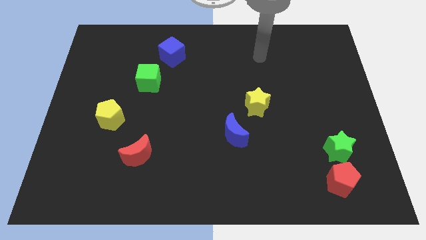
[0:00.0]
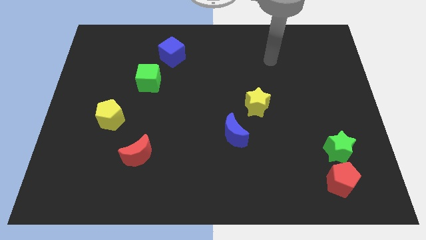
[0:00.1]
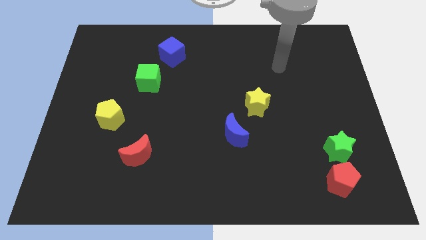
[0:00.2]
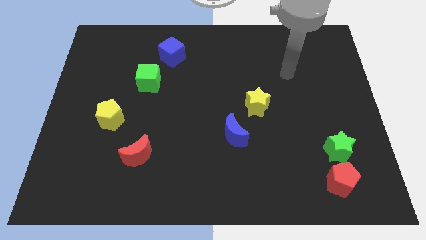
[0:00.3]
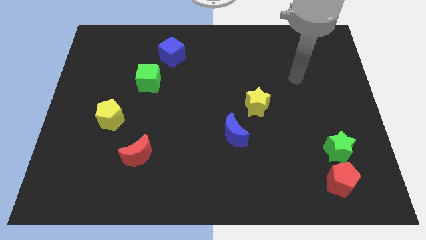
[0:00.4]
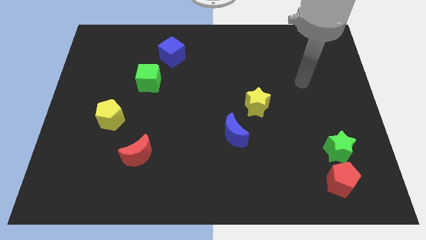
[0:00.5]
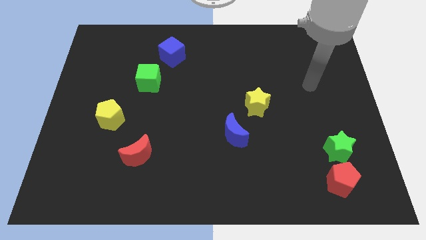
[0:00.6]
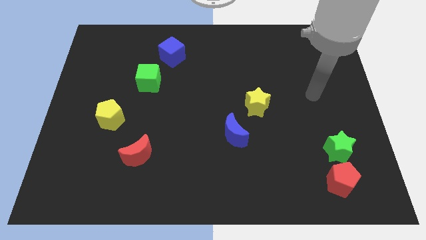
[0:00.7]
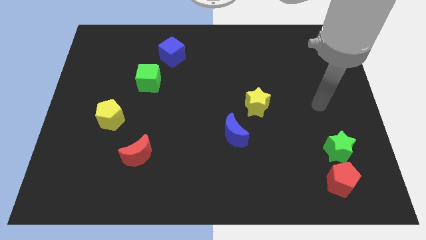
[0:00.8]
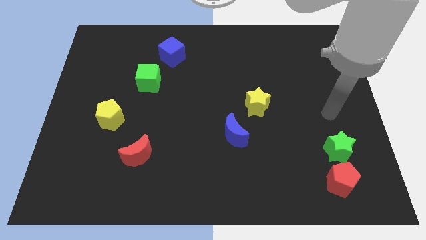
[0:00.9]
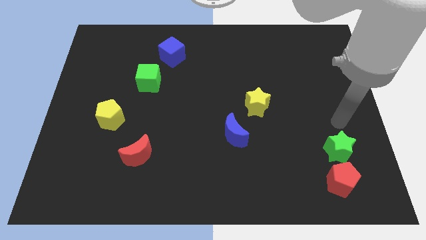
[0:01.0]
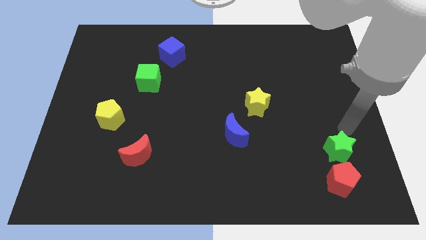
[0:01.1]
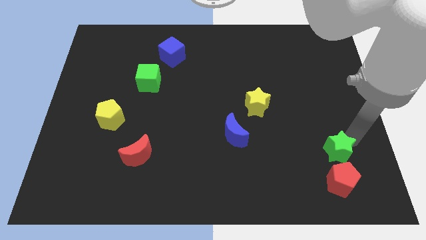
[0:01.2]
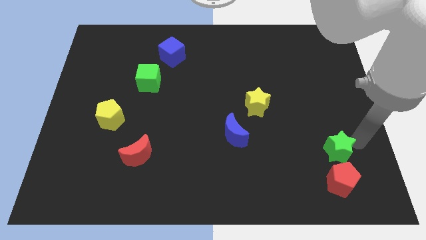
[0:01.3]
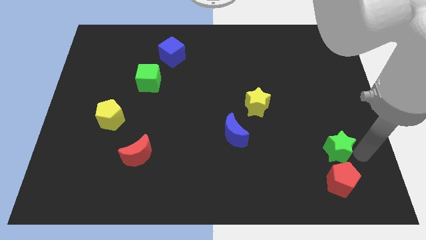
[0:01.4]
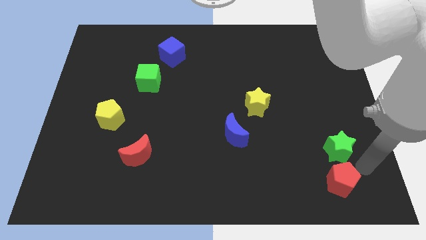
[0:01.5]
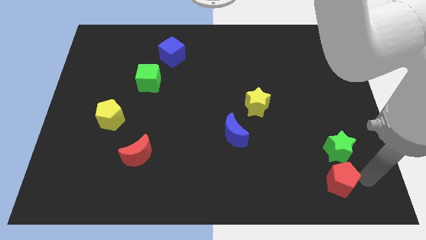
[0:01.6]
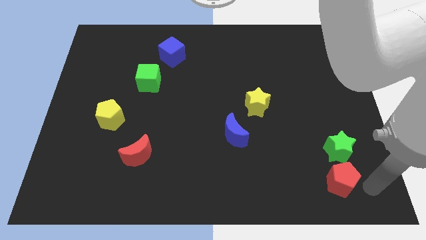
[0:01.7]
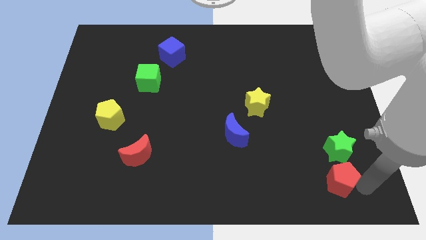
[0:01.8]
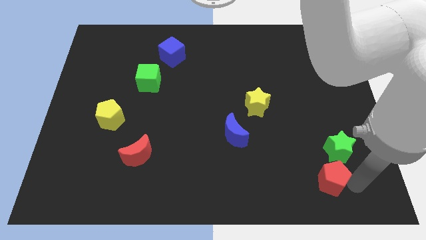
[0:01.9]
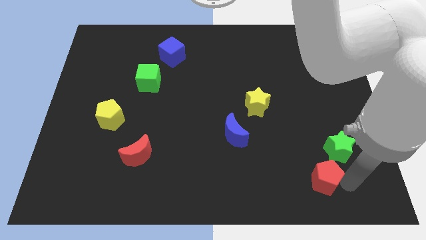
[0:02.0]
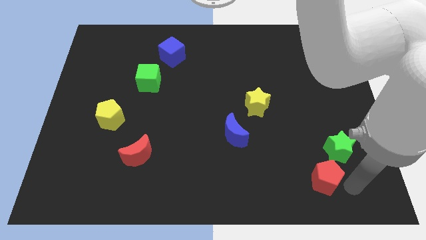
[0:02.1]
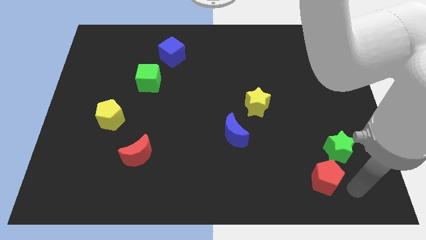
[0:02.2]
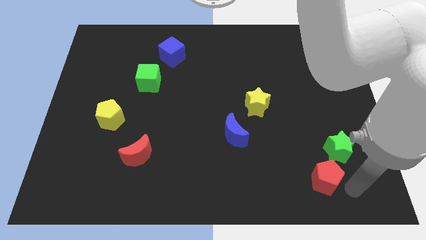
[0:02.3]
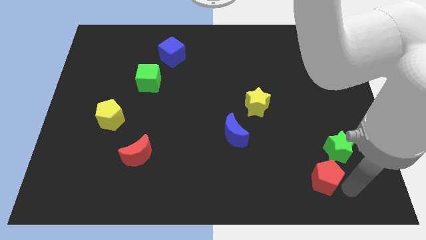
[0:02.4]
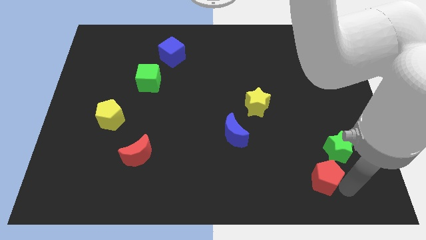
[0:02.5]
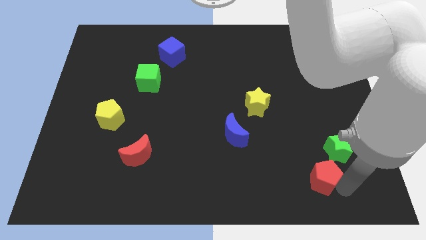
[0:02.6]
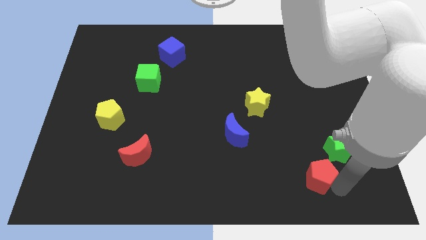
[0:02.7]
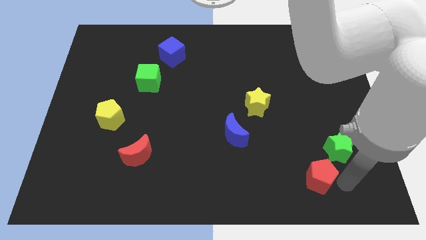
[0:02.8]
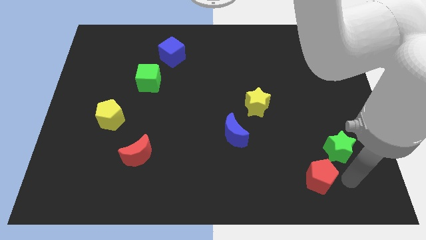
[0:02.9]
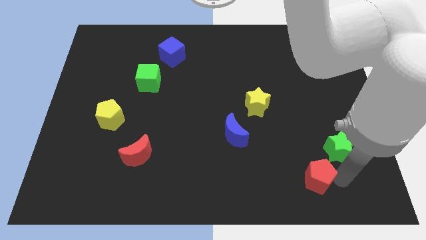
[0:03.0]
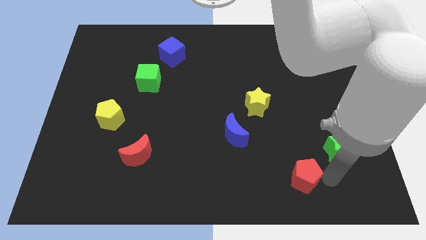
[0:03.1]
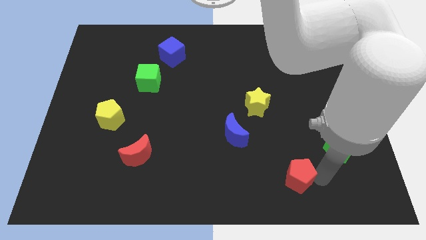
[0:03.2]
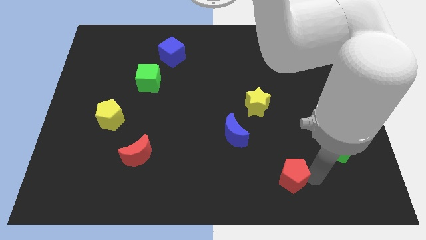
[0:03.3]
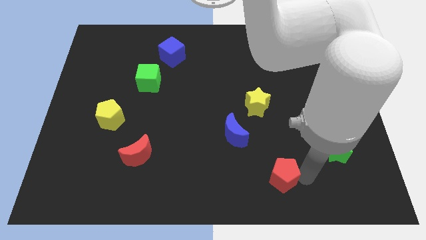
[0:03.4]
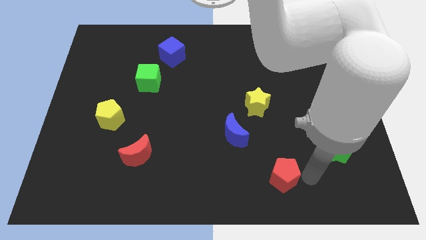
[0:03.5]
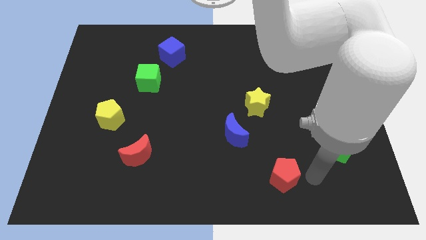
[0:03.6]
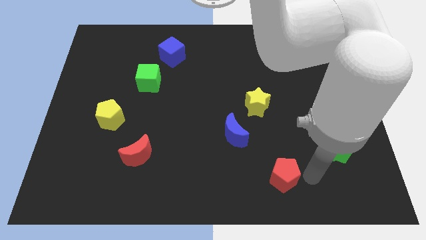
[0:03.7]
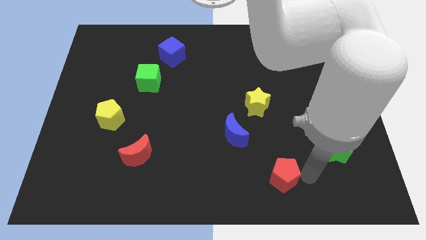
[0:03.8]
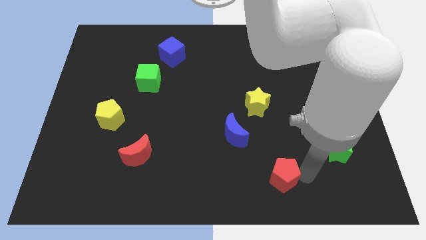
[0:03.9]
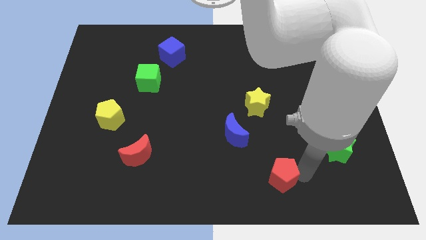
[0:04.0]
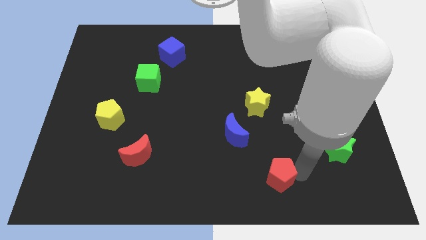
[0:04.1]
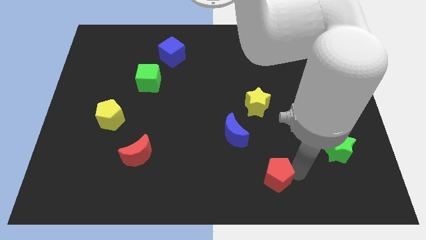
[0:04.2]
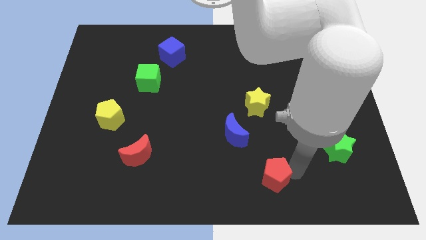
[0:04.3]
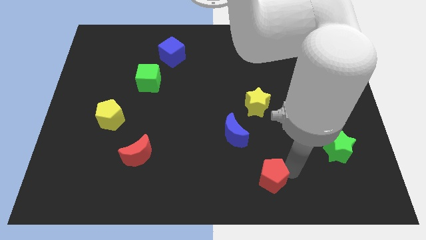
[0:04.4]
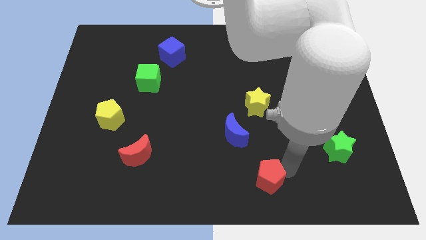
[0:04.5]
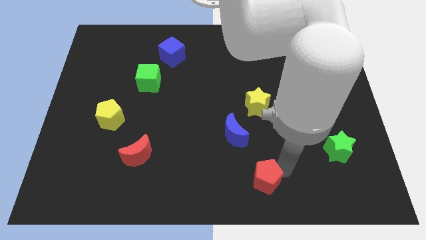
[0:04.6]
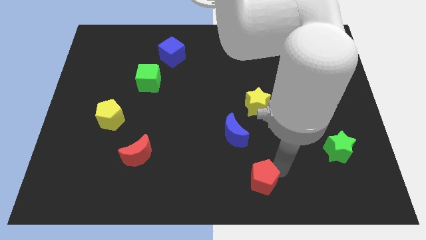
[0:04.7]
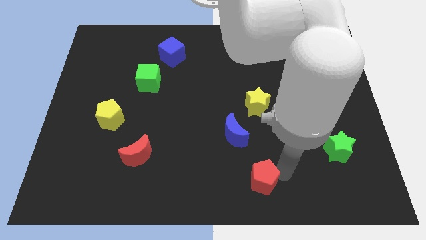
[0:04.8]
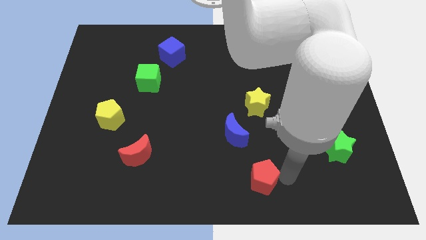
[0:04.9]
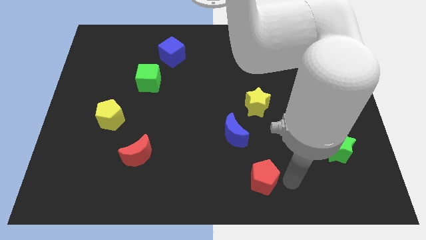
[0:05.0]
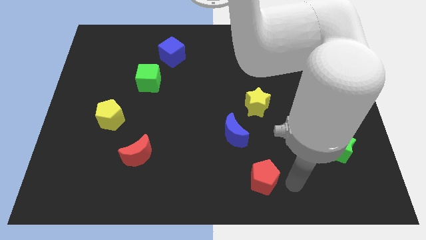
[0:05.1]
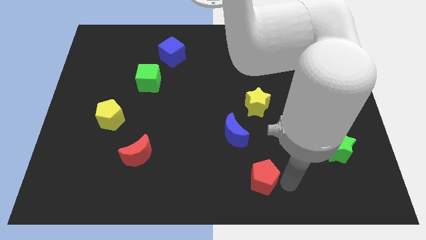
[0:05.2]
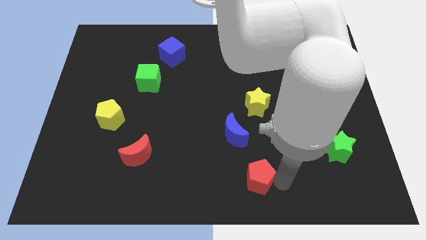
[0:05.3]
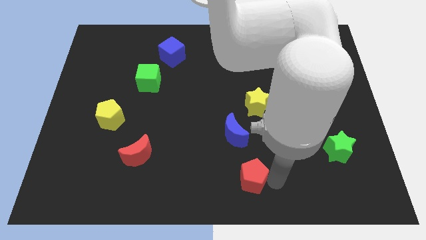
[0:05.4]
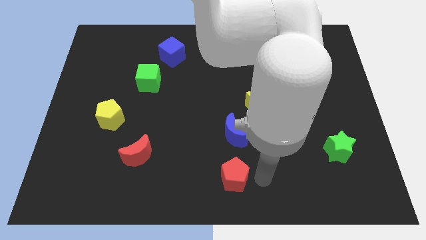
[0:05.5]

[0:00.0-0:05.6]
slide the red pentagon left

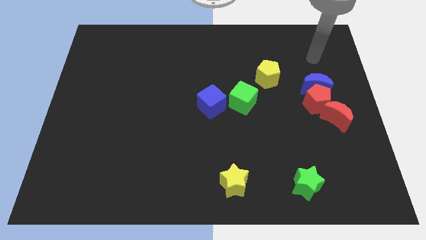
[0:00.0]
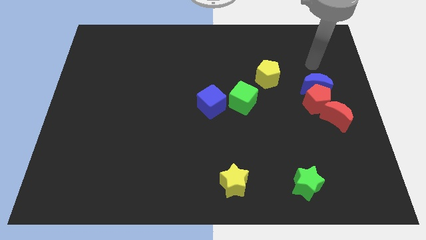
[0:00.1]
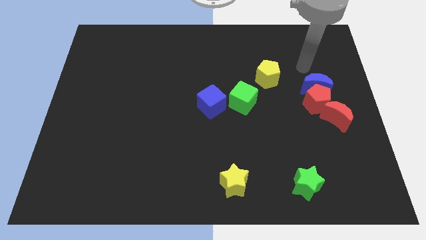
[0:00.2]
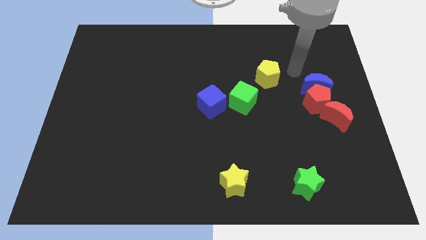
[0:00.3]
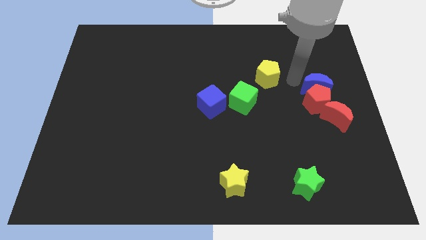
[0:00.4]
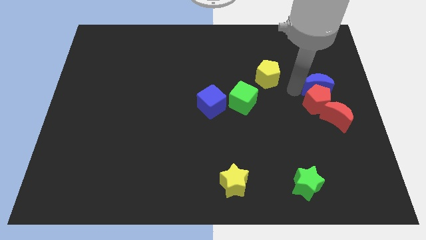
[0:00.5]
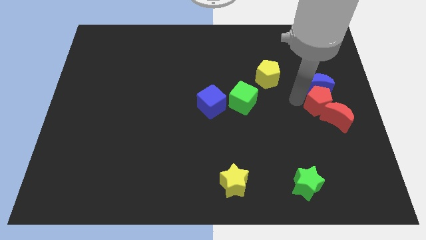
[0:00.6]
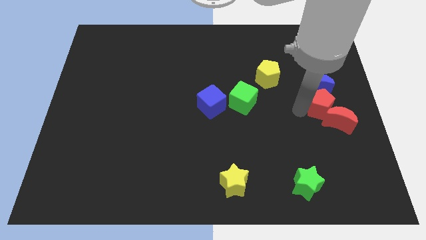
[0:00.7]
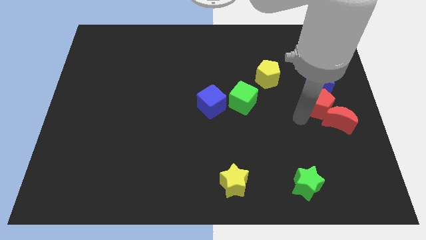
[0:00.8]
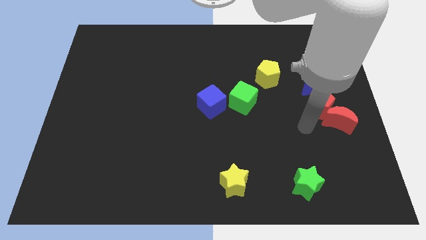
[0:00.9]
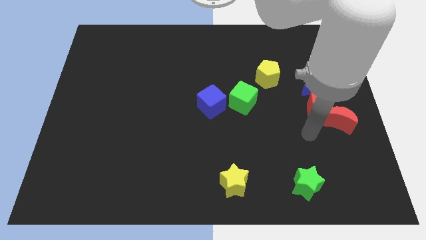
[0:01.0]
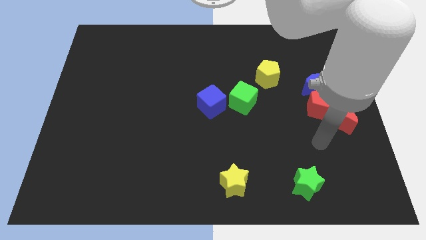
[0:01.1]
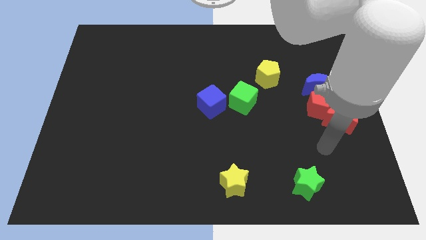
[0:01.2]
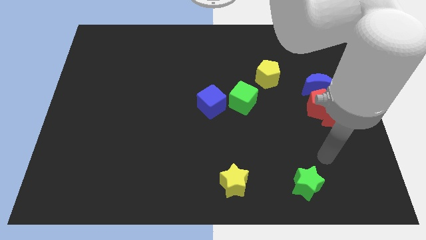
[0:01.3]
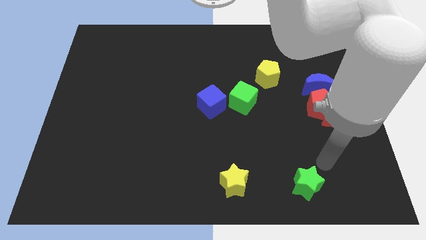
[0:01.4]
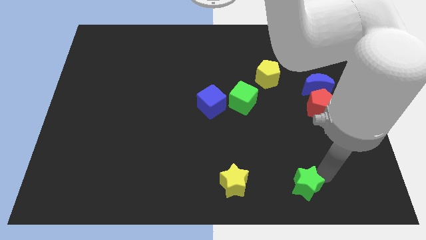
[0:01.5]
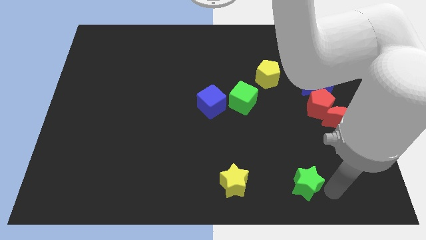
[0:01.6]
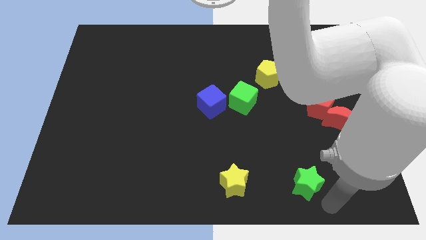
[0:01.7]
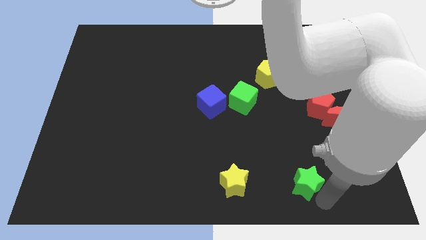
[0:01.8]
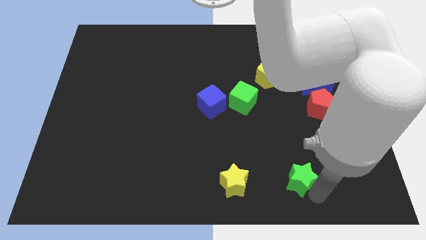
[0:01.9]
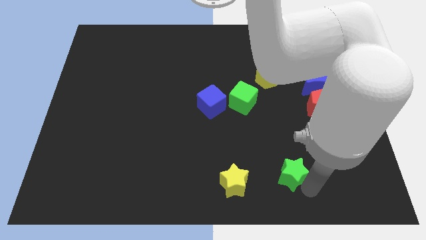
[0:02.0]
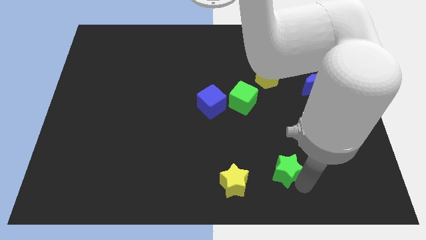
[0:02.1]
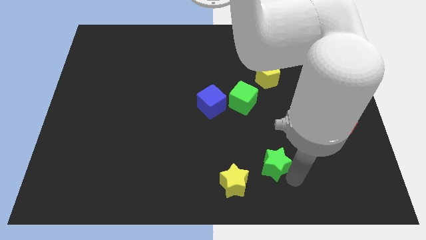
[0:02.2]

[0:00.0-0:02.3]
slide the green star a little bit upwards and then left

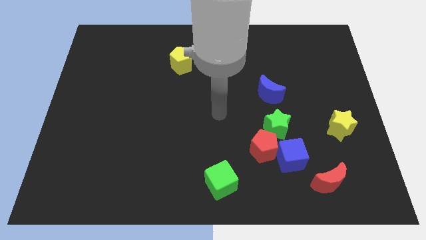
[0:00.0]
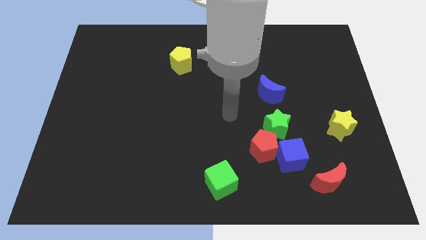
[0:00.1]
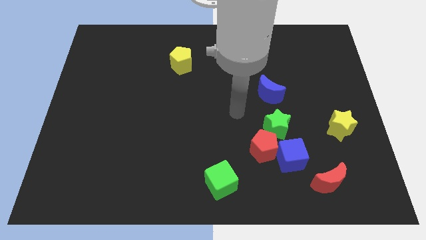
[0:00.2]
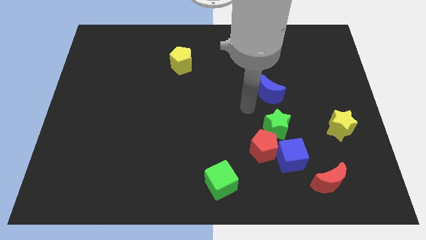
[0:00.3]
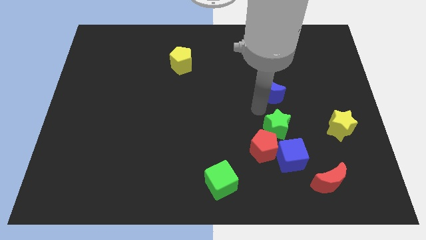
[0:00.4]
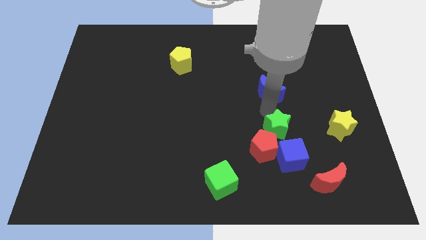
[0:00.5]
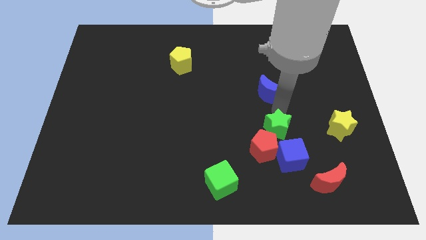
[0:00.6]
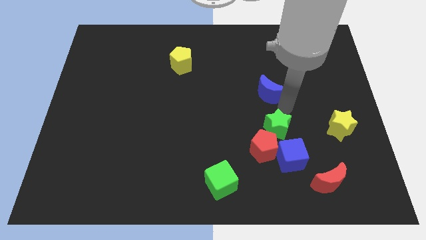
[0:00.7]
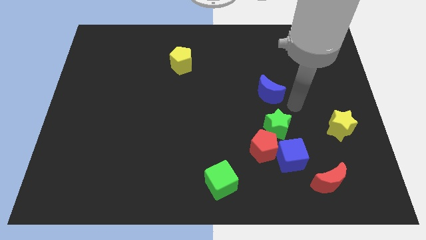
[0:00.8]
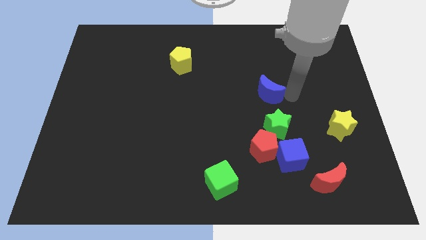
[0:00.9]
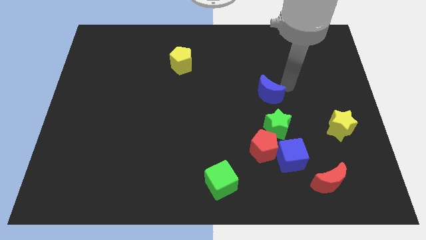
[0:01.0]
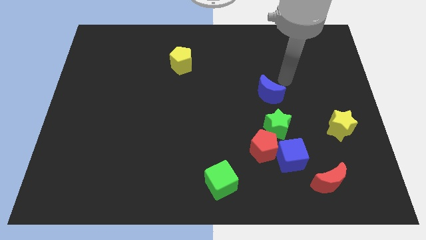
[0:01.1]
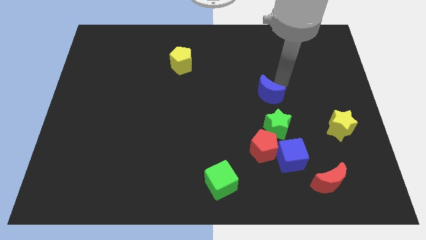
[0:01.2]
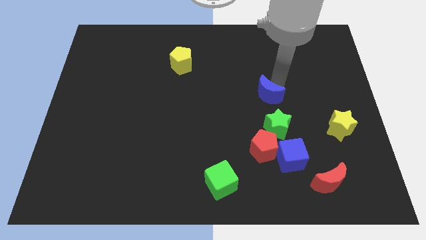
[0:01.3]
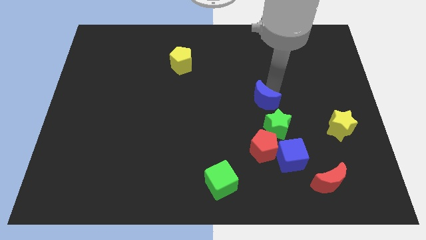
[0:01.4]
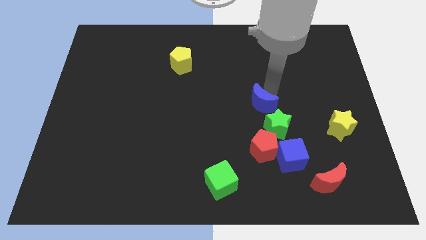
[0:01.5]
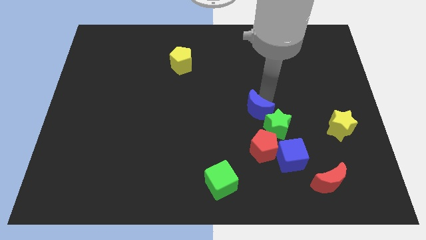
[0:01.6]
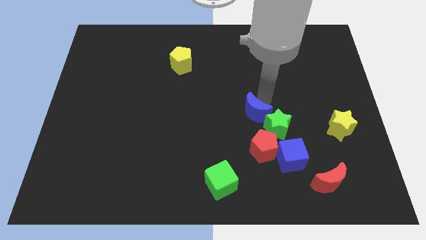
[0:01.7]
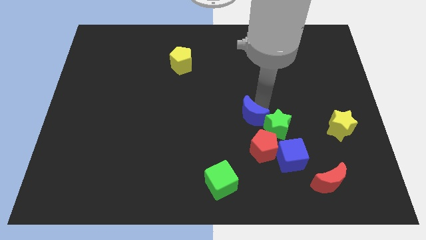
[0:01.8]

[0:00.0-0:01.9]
slide the blue moon slightly down and then to the left
